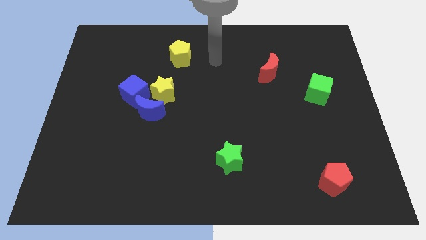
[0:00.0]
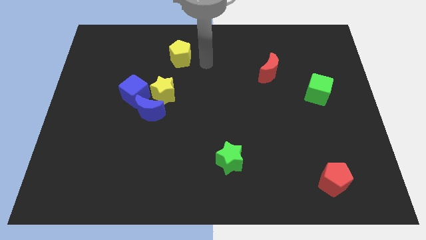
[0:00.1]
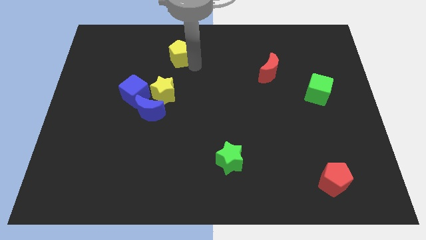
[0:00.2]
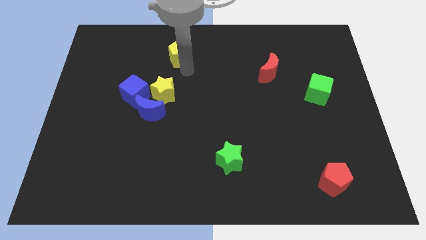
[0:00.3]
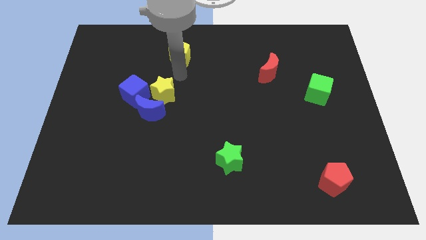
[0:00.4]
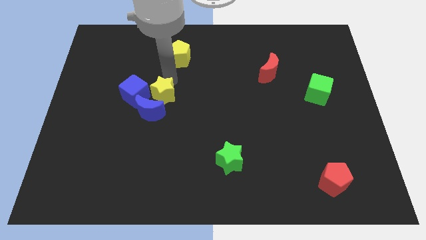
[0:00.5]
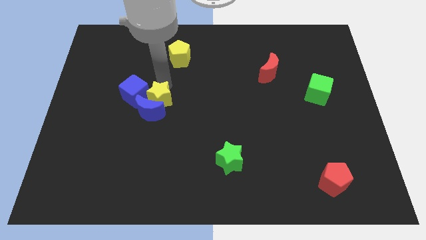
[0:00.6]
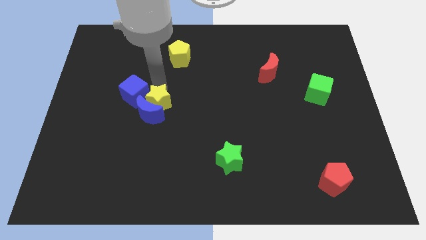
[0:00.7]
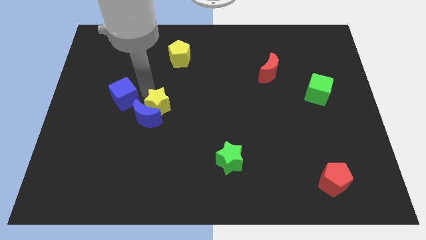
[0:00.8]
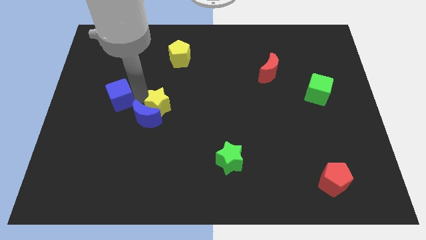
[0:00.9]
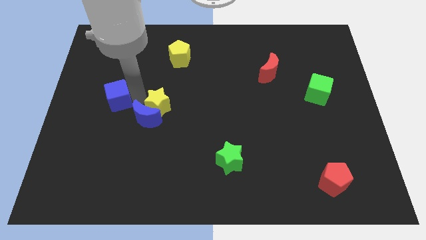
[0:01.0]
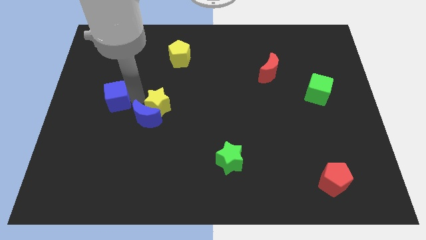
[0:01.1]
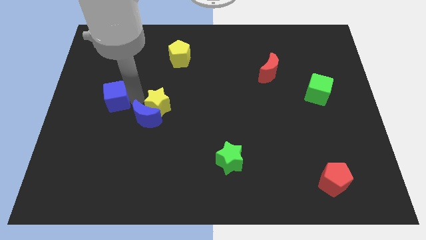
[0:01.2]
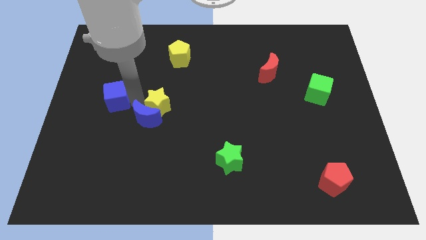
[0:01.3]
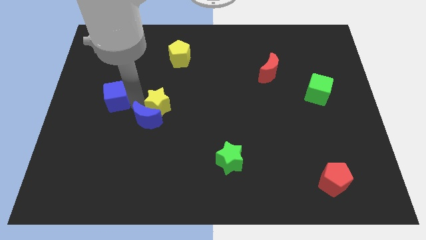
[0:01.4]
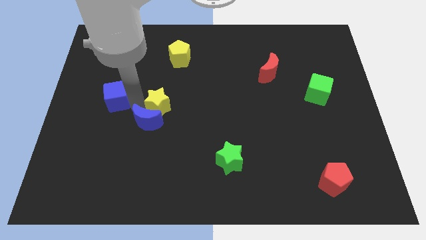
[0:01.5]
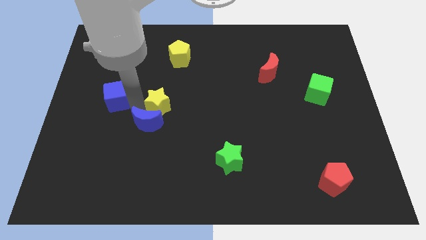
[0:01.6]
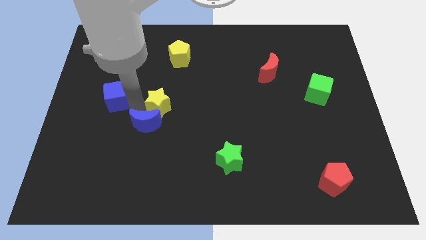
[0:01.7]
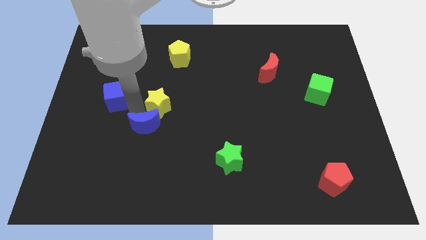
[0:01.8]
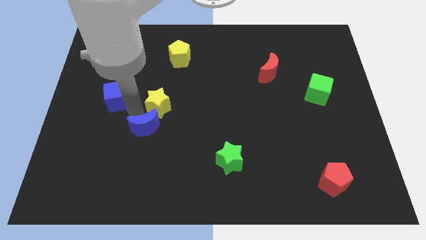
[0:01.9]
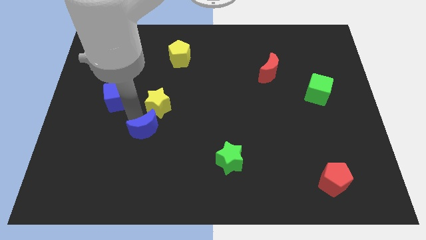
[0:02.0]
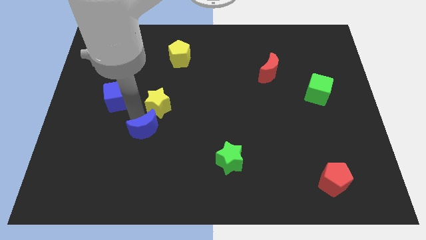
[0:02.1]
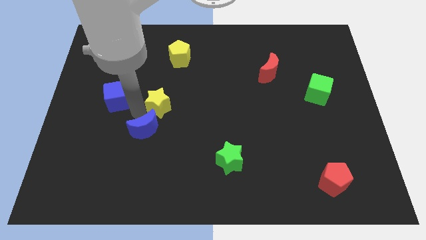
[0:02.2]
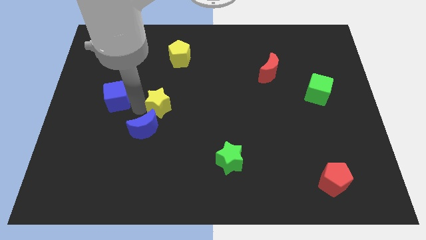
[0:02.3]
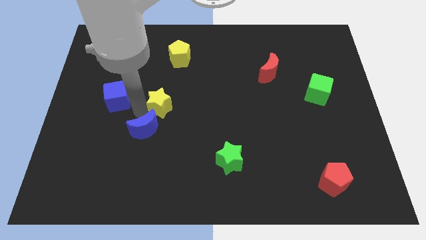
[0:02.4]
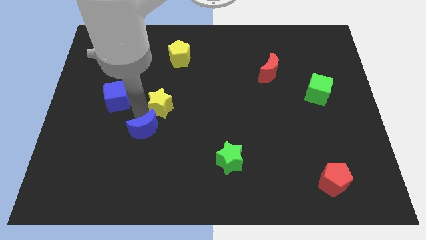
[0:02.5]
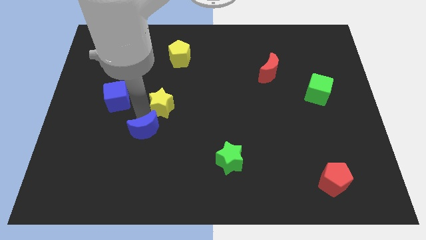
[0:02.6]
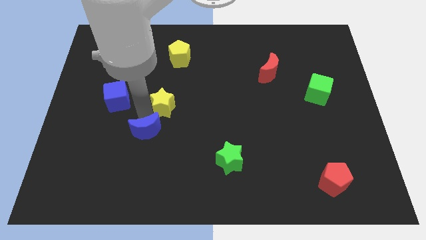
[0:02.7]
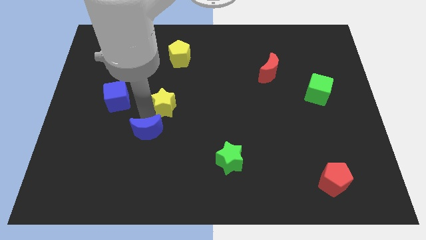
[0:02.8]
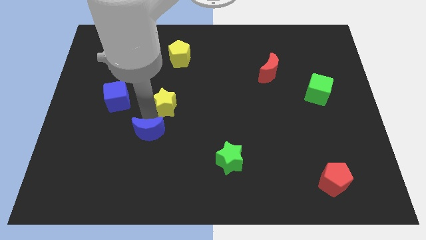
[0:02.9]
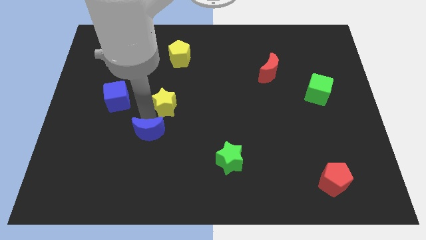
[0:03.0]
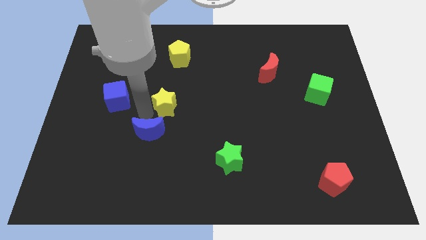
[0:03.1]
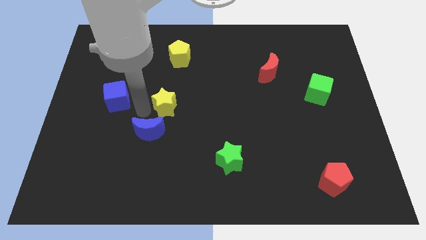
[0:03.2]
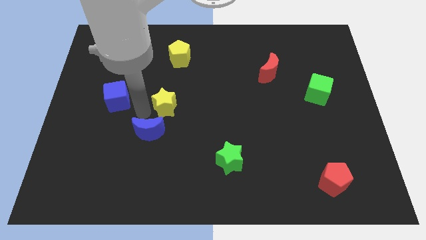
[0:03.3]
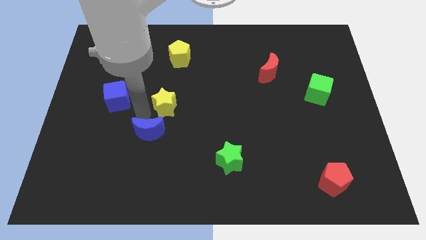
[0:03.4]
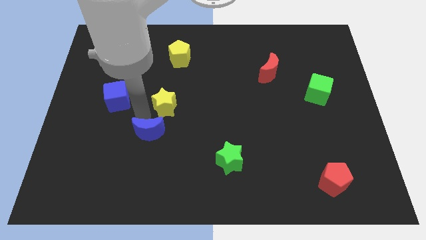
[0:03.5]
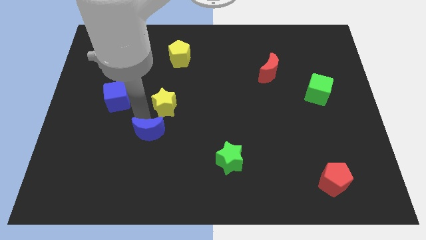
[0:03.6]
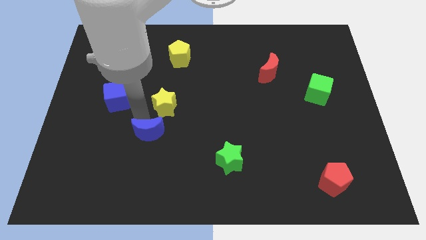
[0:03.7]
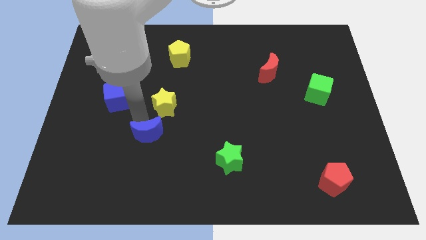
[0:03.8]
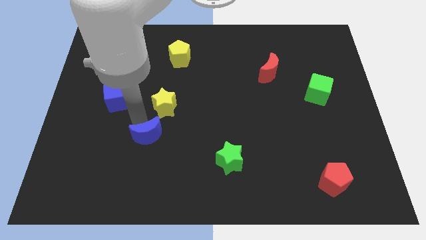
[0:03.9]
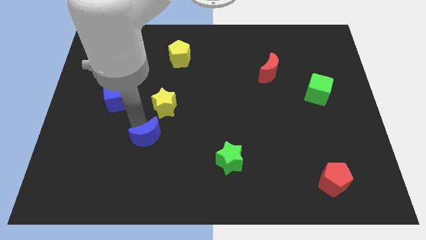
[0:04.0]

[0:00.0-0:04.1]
pull the blue moon apart from the yellow star and blue cube

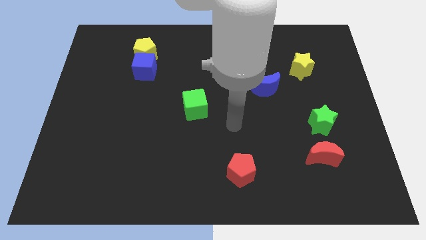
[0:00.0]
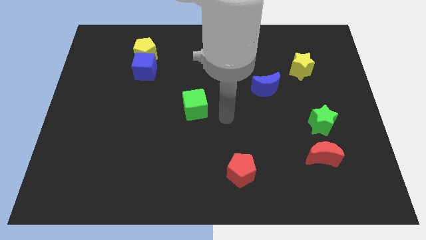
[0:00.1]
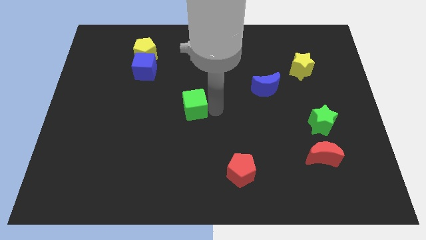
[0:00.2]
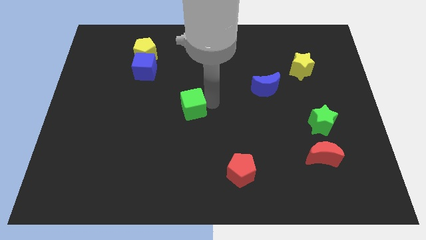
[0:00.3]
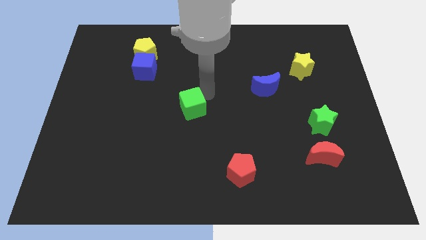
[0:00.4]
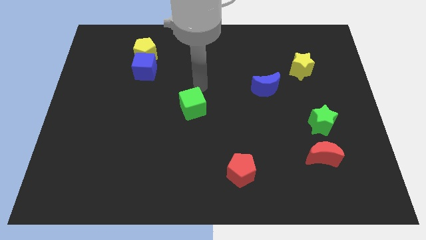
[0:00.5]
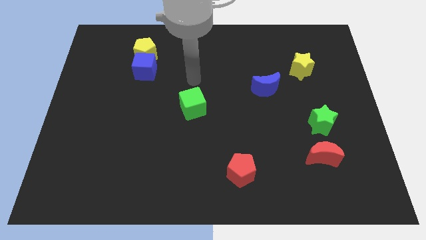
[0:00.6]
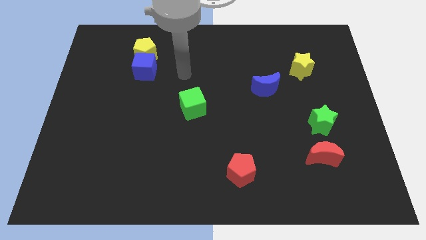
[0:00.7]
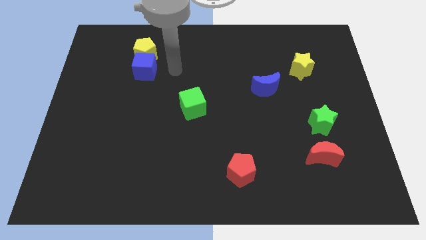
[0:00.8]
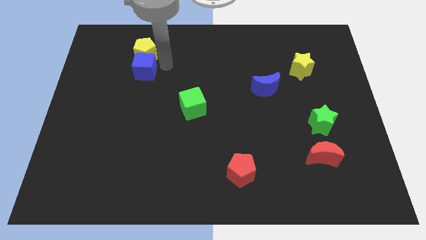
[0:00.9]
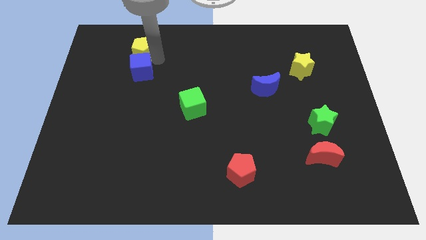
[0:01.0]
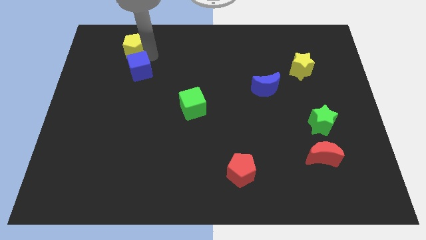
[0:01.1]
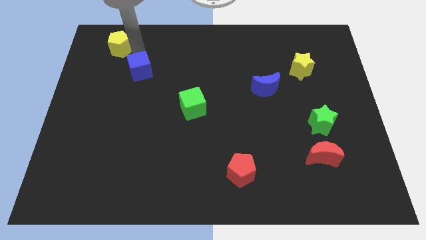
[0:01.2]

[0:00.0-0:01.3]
pull the blue cube apart from the yellow pentagon

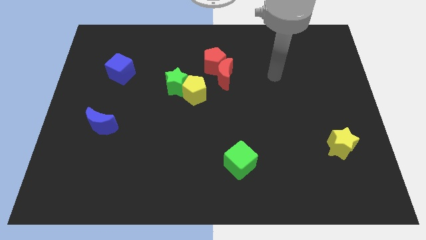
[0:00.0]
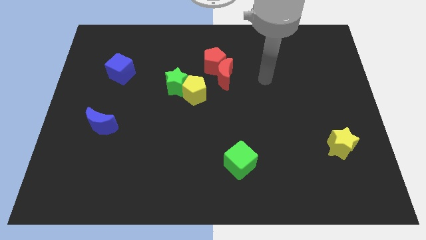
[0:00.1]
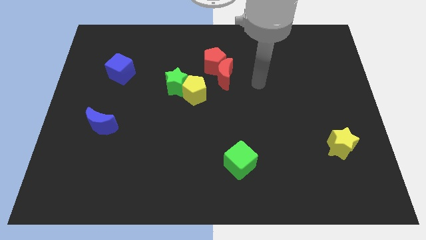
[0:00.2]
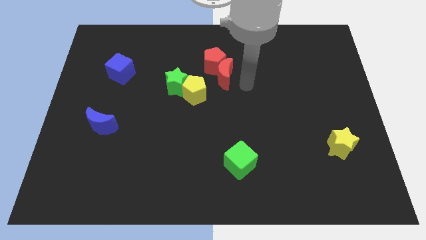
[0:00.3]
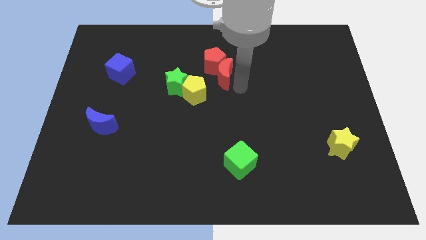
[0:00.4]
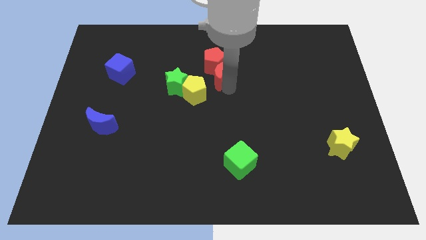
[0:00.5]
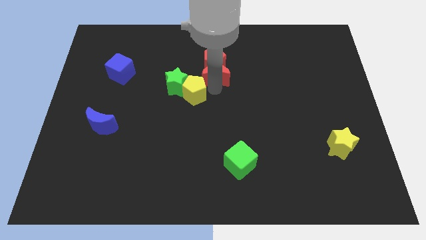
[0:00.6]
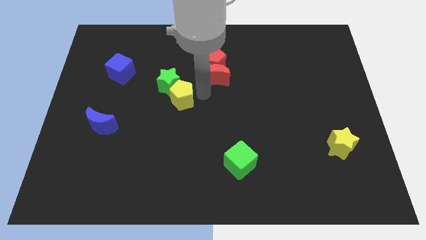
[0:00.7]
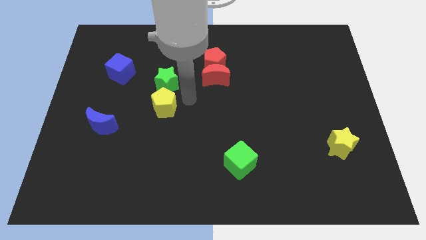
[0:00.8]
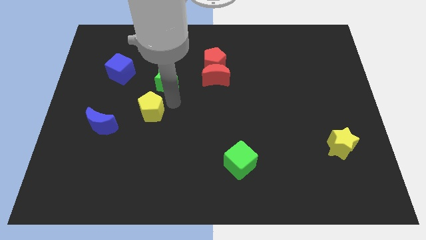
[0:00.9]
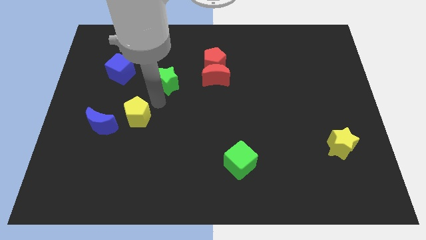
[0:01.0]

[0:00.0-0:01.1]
separate the green star from the yellow pentagon

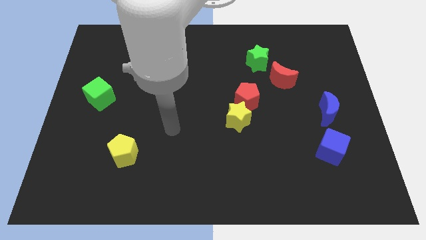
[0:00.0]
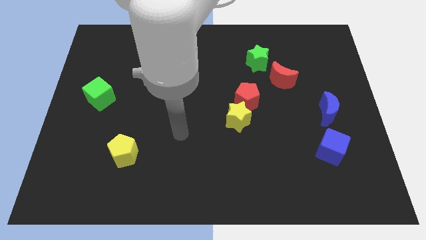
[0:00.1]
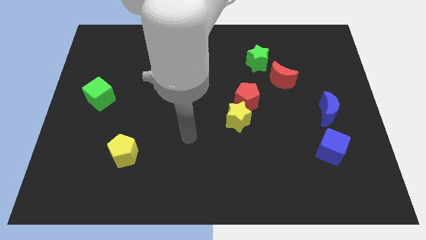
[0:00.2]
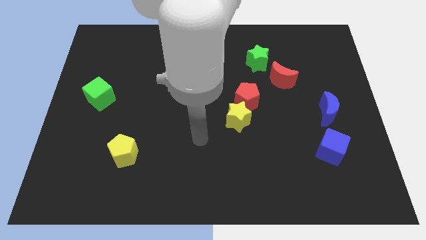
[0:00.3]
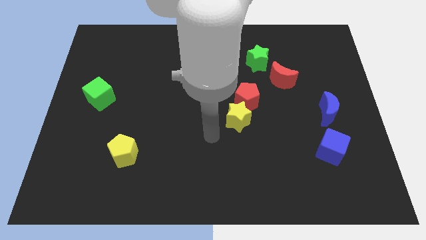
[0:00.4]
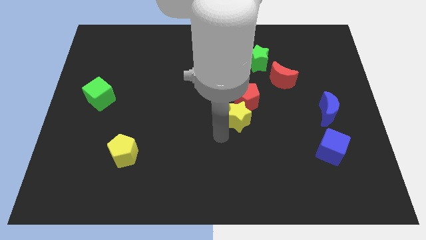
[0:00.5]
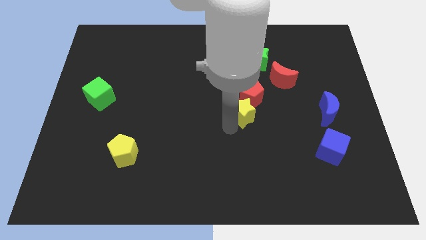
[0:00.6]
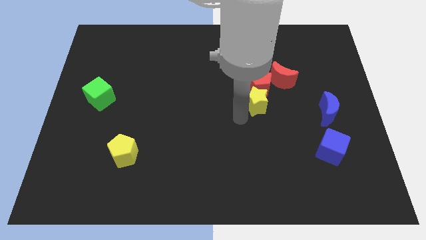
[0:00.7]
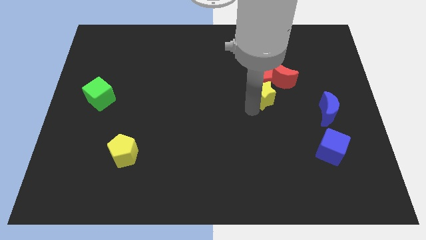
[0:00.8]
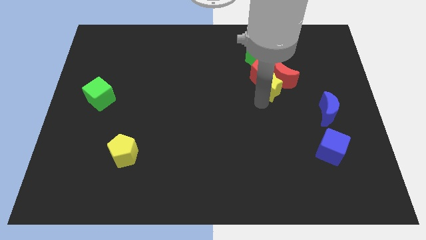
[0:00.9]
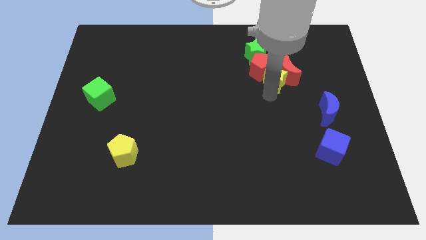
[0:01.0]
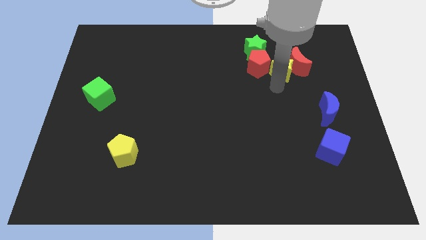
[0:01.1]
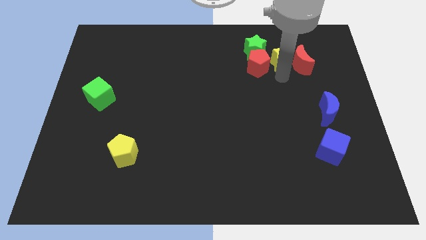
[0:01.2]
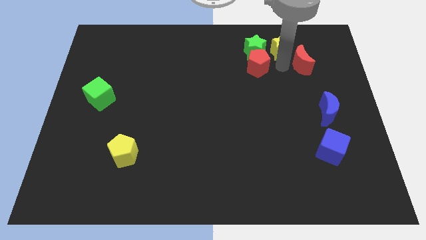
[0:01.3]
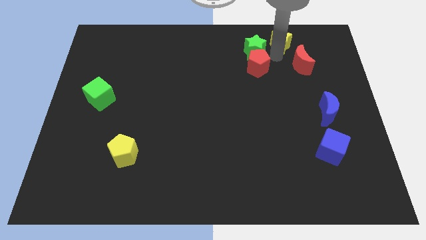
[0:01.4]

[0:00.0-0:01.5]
separate the red pentagon from the yellow star

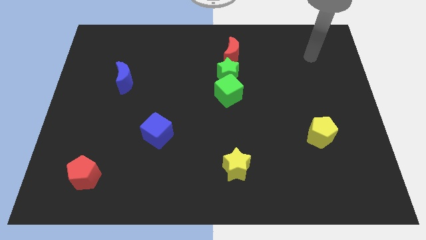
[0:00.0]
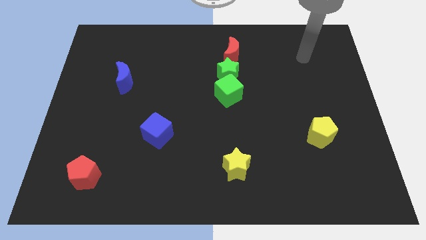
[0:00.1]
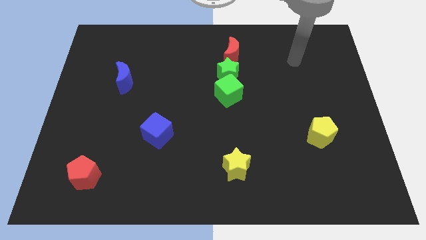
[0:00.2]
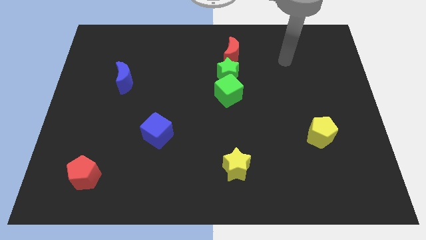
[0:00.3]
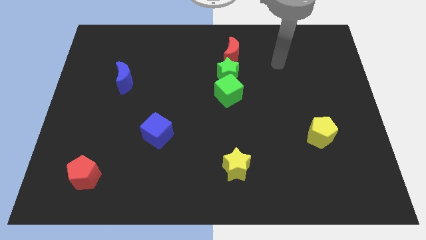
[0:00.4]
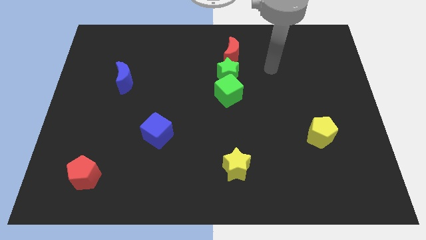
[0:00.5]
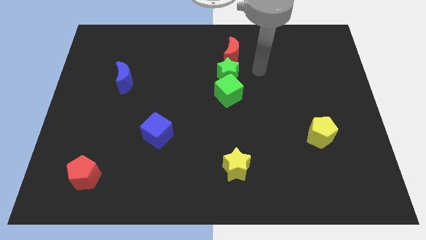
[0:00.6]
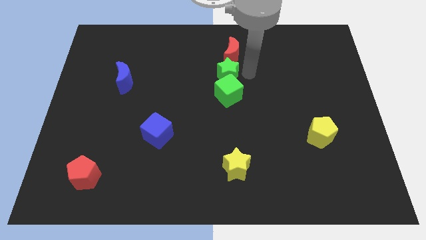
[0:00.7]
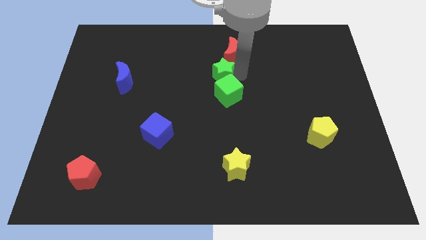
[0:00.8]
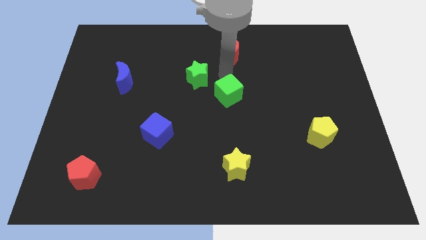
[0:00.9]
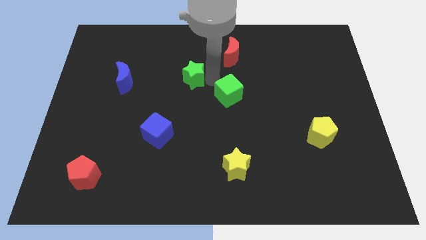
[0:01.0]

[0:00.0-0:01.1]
move the green cube away from the green star

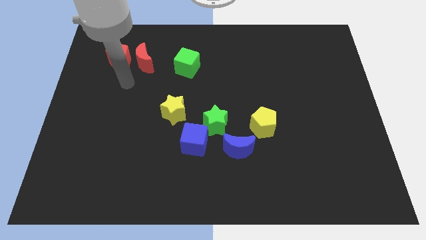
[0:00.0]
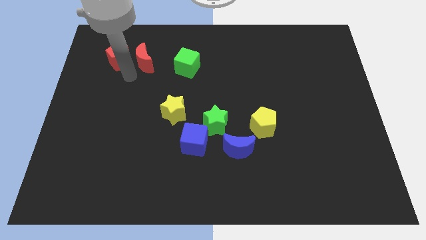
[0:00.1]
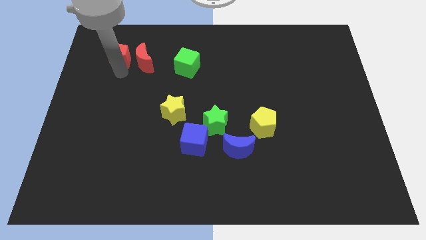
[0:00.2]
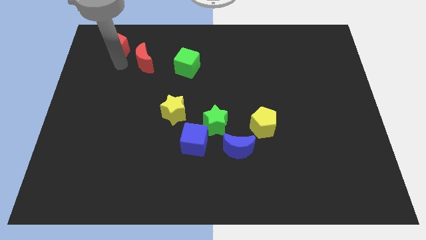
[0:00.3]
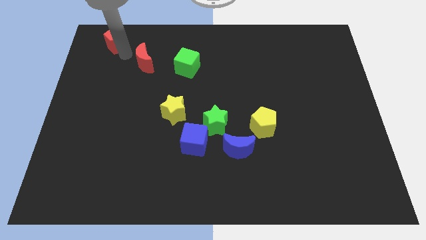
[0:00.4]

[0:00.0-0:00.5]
separate the red moon from the red pentagon
